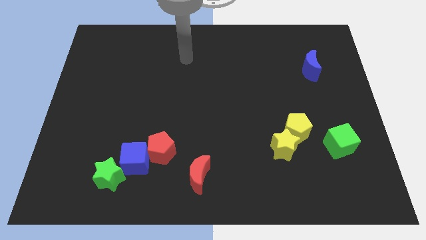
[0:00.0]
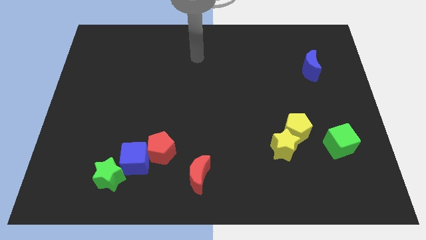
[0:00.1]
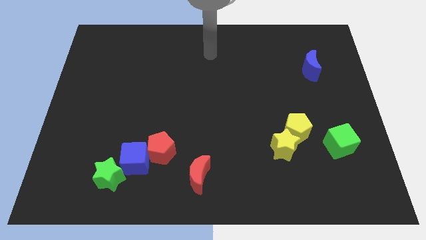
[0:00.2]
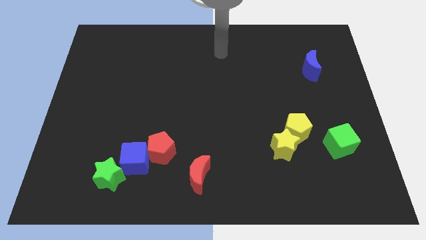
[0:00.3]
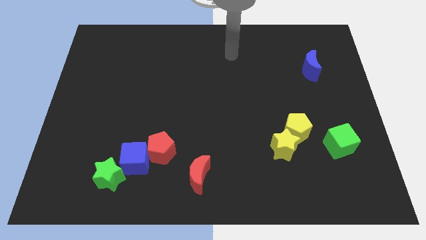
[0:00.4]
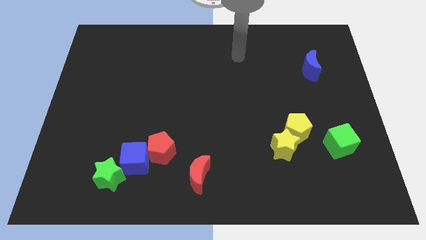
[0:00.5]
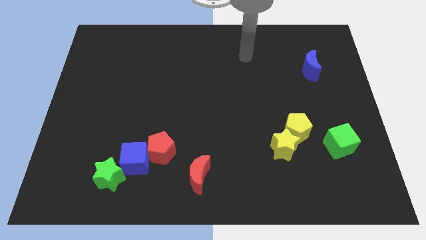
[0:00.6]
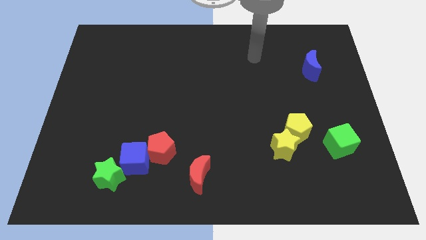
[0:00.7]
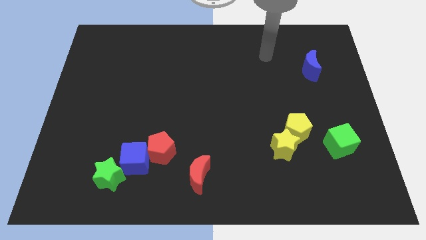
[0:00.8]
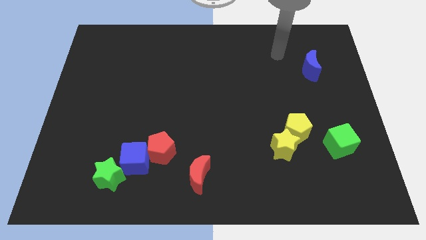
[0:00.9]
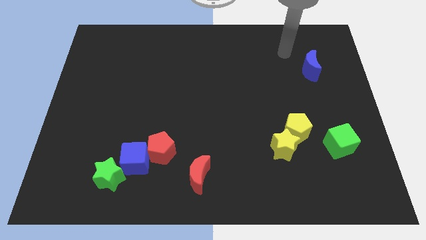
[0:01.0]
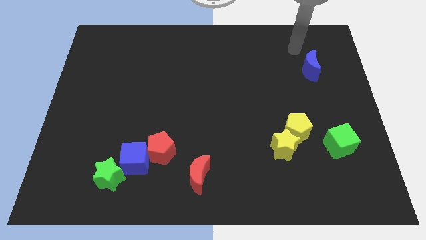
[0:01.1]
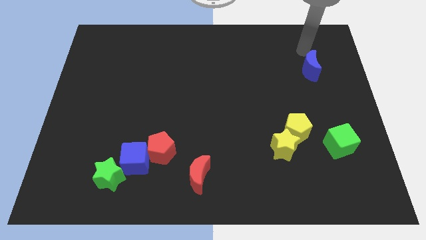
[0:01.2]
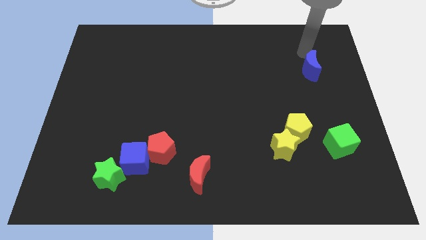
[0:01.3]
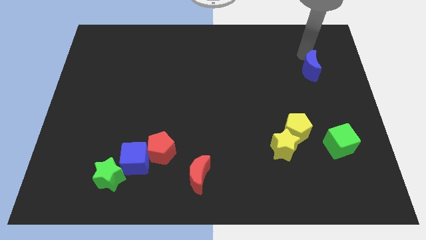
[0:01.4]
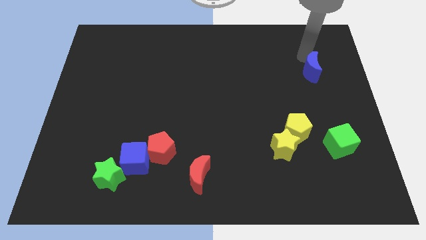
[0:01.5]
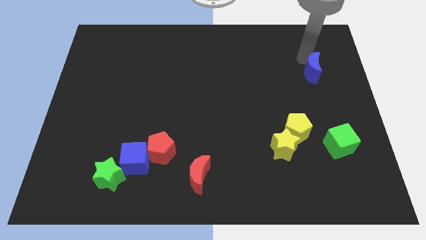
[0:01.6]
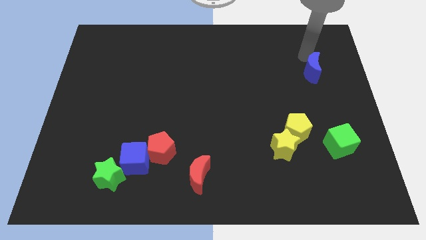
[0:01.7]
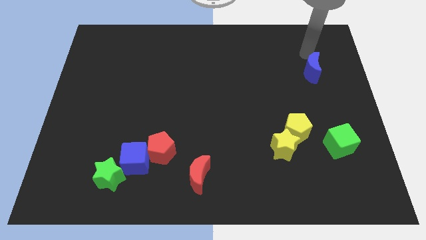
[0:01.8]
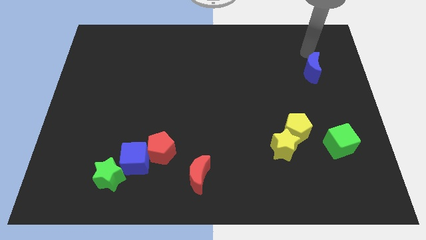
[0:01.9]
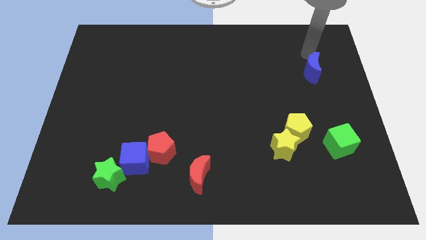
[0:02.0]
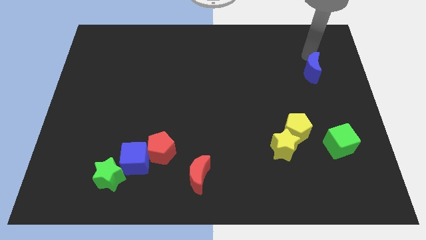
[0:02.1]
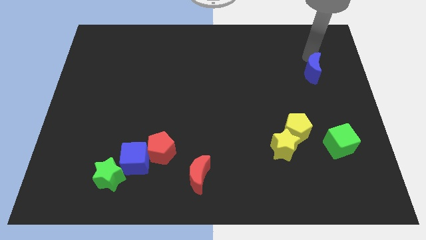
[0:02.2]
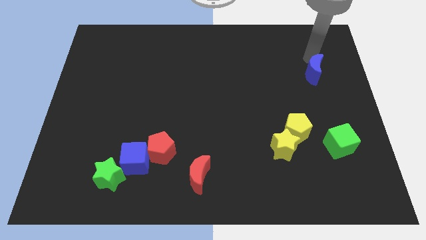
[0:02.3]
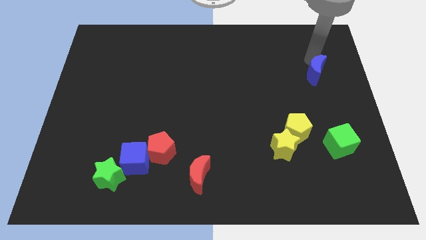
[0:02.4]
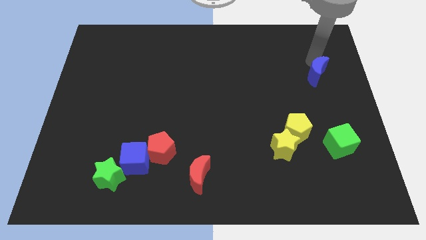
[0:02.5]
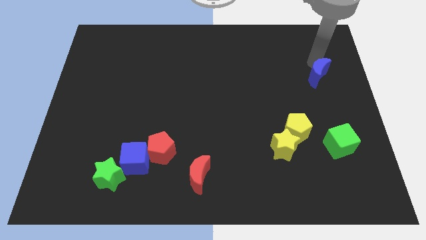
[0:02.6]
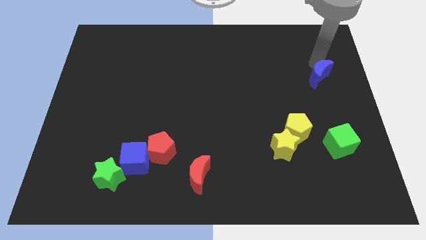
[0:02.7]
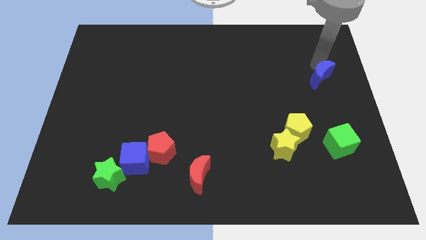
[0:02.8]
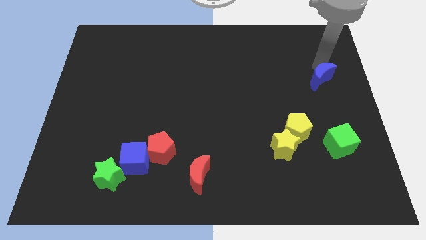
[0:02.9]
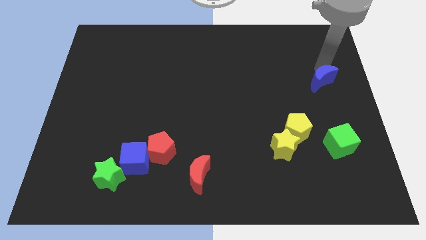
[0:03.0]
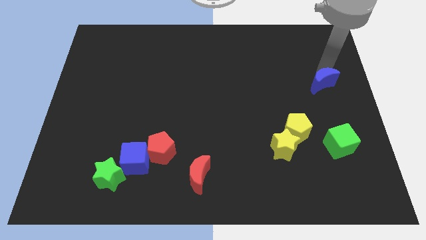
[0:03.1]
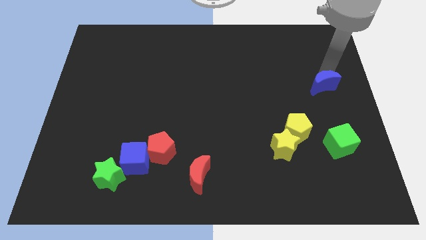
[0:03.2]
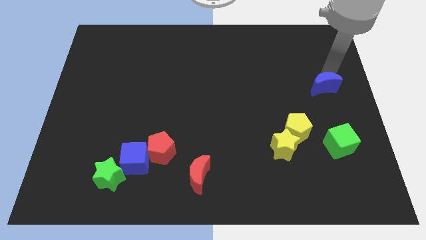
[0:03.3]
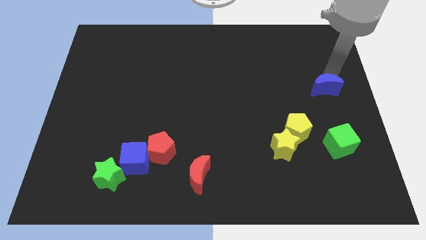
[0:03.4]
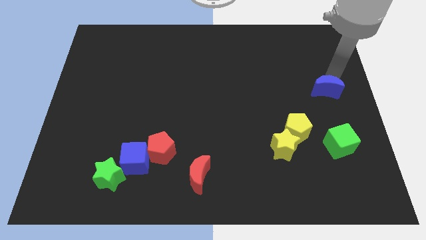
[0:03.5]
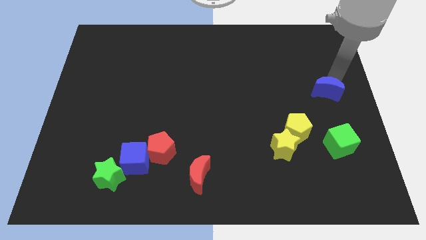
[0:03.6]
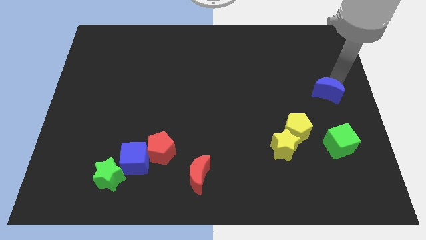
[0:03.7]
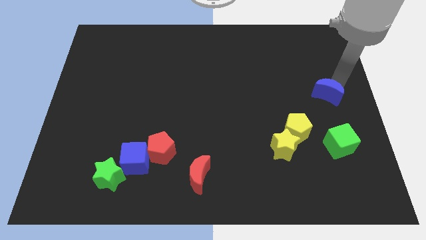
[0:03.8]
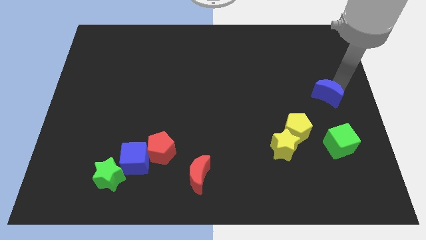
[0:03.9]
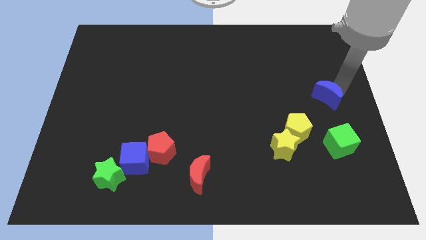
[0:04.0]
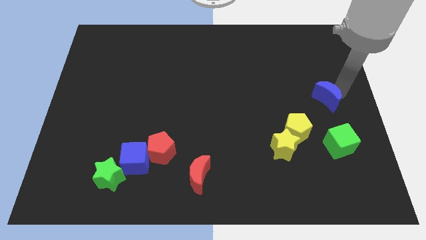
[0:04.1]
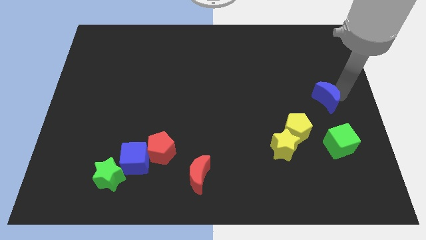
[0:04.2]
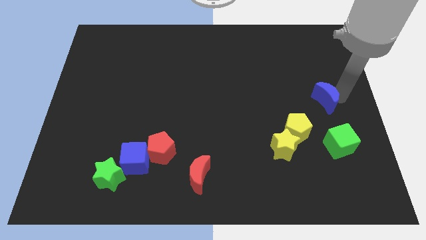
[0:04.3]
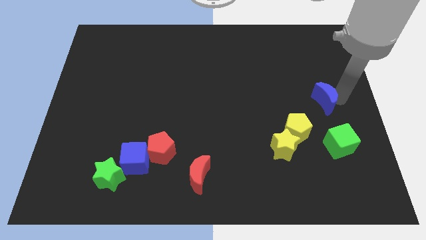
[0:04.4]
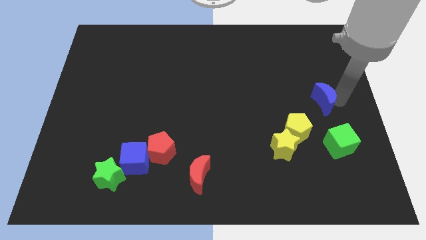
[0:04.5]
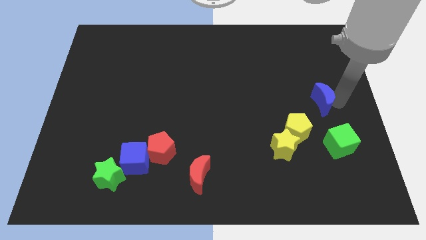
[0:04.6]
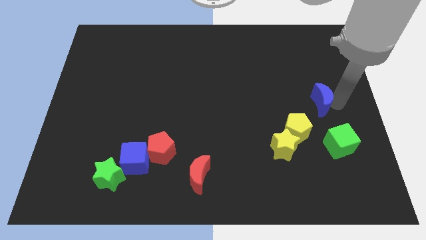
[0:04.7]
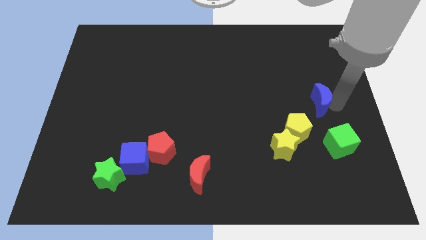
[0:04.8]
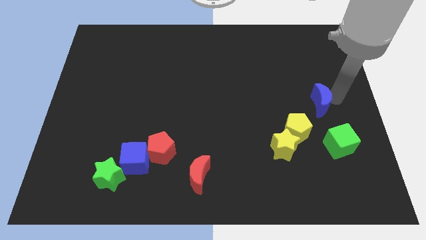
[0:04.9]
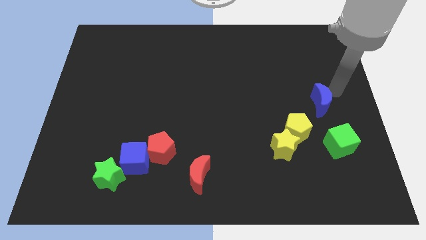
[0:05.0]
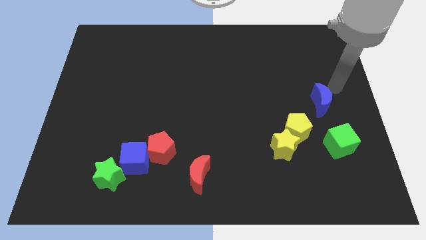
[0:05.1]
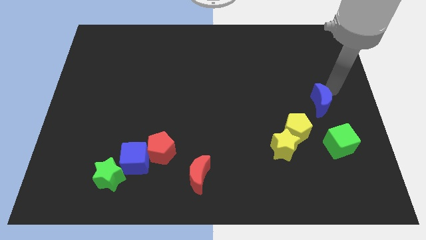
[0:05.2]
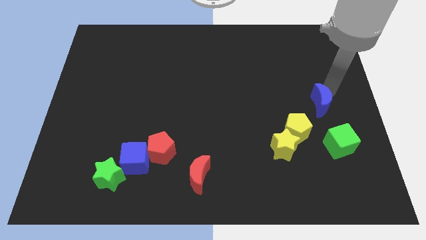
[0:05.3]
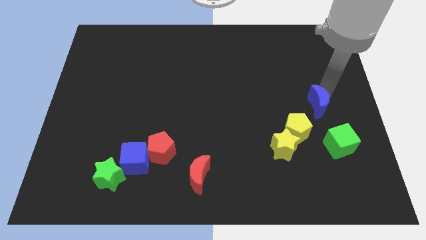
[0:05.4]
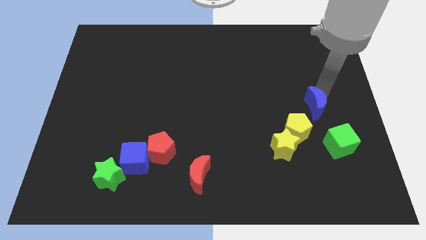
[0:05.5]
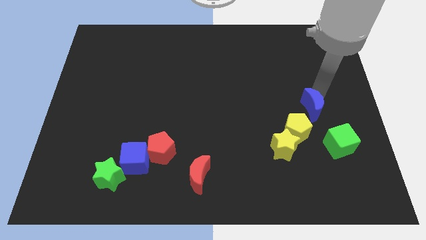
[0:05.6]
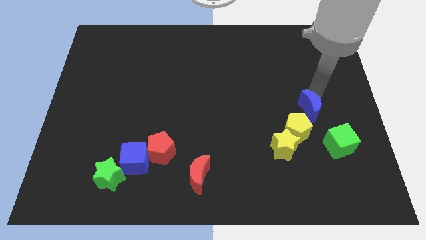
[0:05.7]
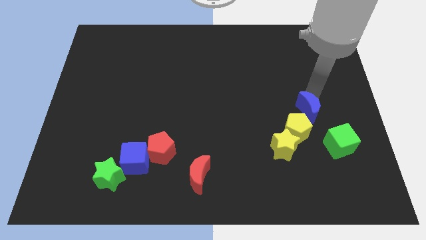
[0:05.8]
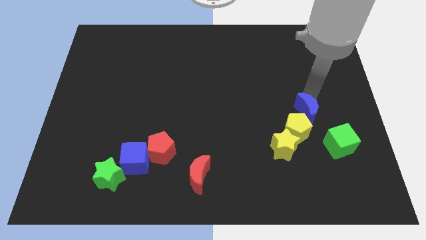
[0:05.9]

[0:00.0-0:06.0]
slide the blue moon close to the yellow pentagon

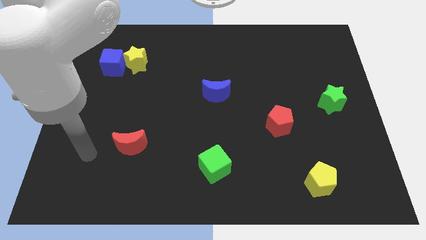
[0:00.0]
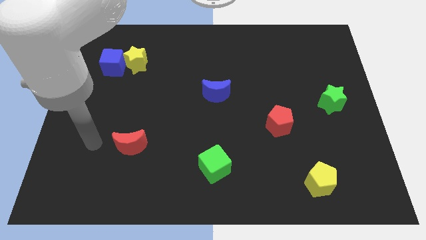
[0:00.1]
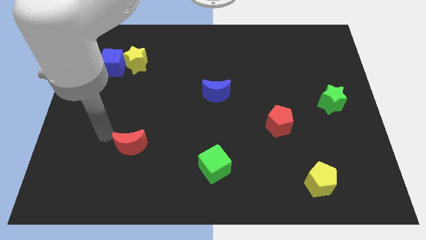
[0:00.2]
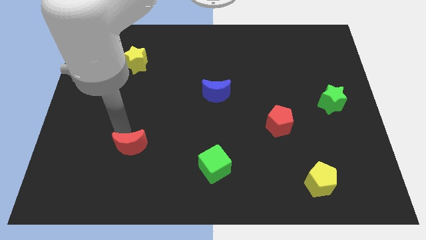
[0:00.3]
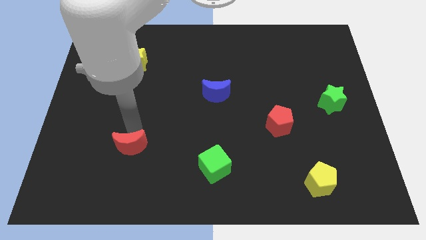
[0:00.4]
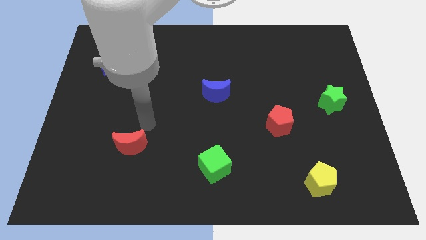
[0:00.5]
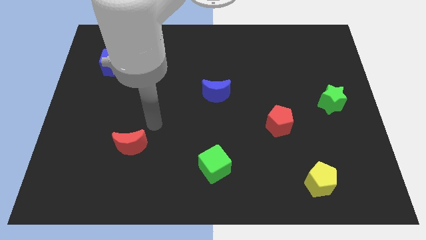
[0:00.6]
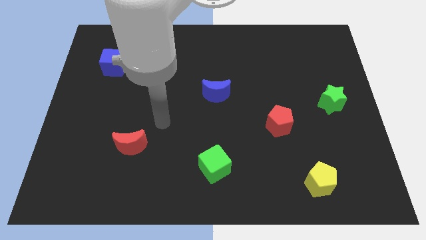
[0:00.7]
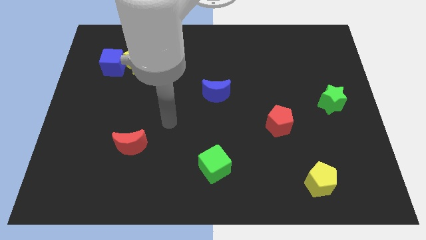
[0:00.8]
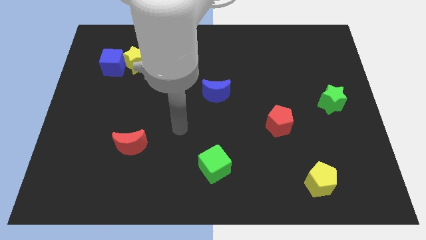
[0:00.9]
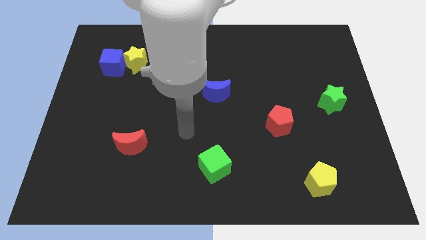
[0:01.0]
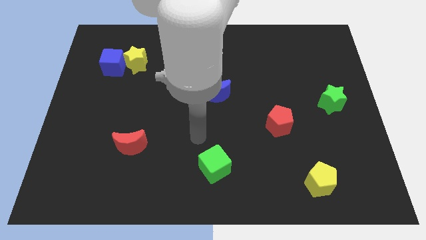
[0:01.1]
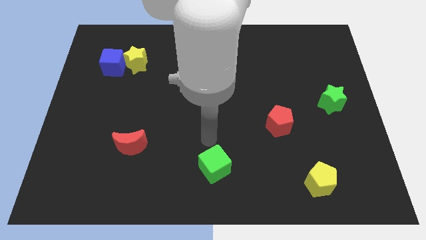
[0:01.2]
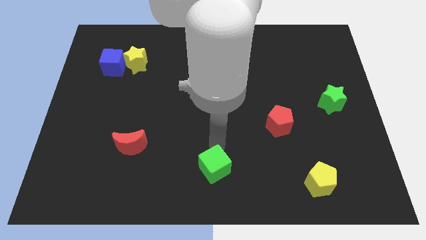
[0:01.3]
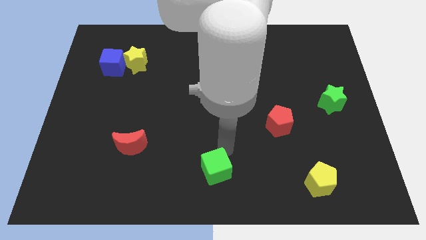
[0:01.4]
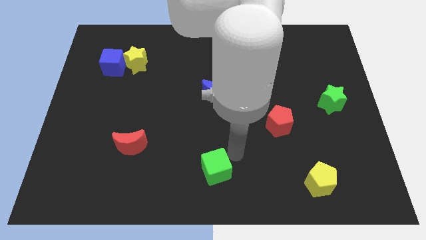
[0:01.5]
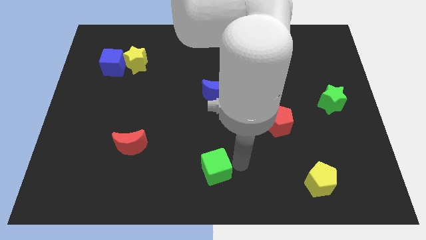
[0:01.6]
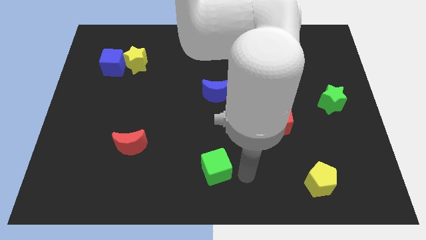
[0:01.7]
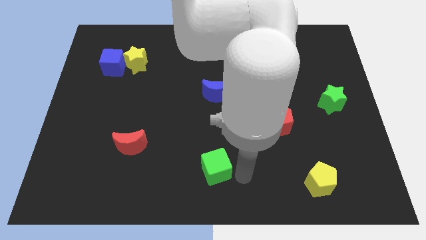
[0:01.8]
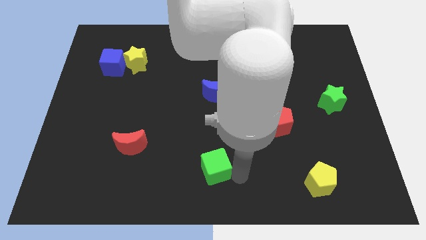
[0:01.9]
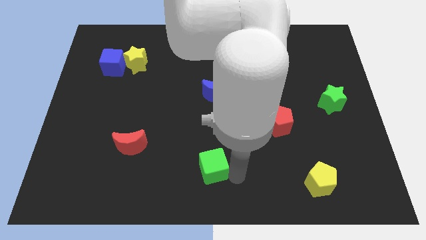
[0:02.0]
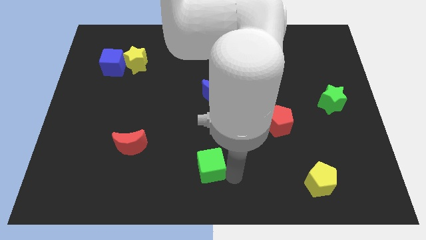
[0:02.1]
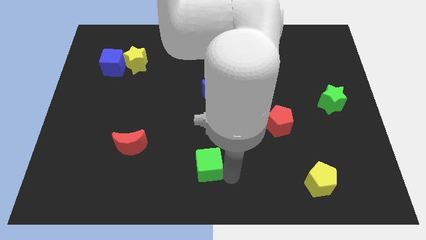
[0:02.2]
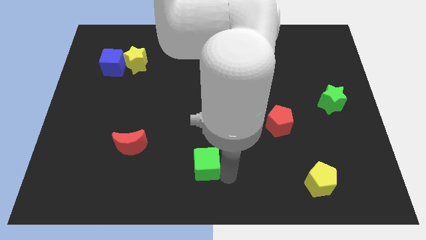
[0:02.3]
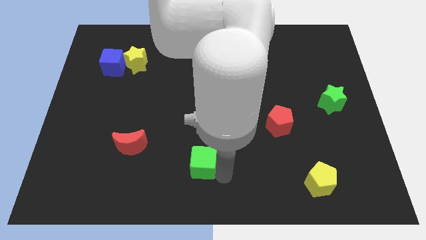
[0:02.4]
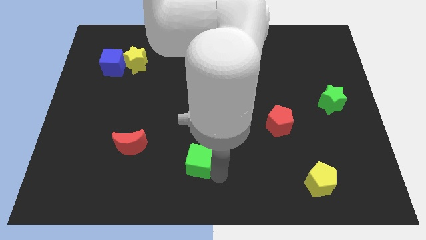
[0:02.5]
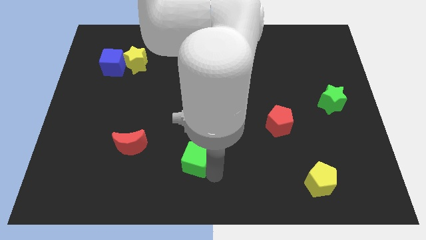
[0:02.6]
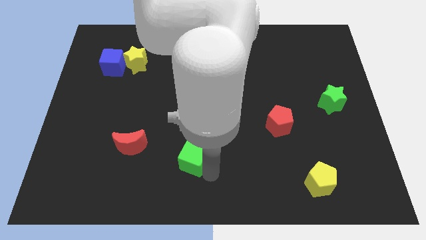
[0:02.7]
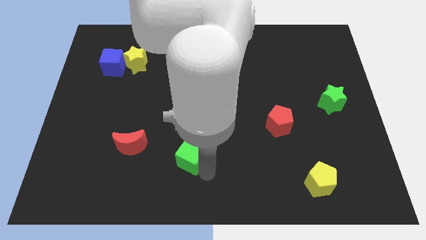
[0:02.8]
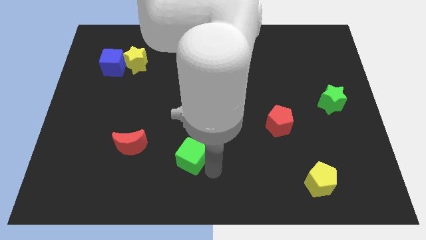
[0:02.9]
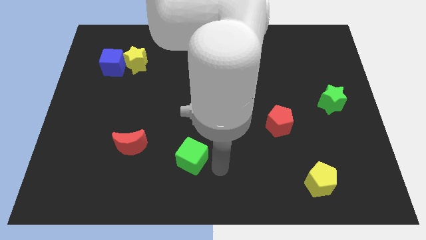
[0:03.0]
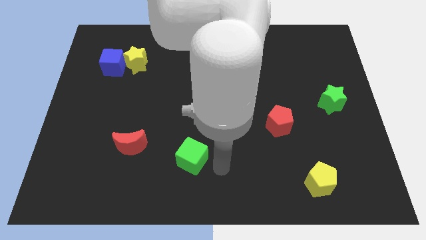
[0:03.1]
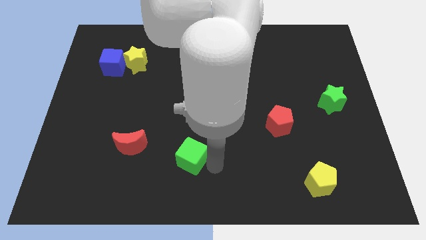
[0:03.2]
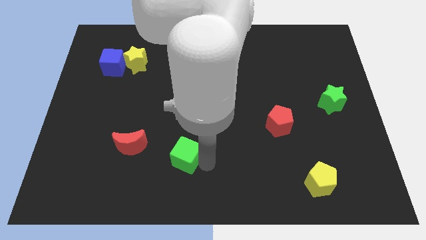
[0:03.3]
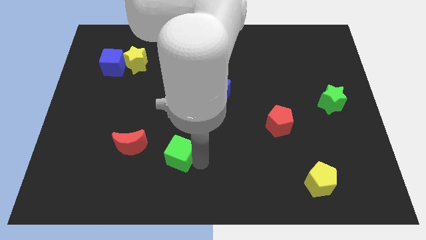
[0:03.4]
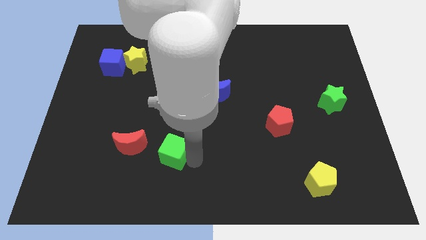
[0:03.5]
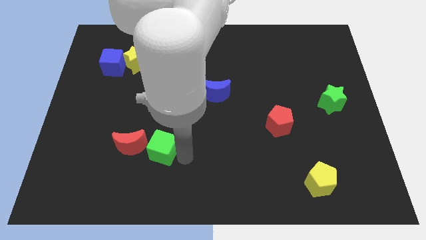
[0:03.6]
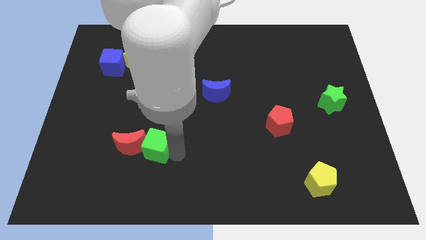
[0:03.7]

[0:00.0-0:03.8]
put the green cube to the red moon
